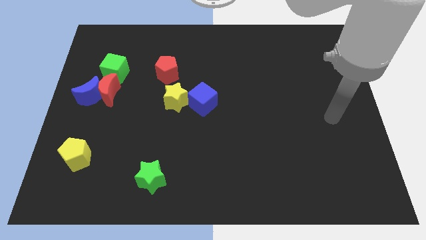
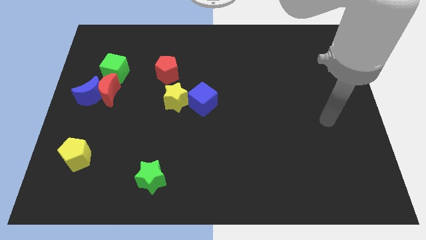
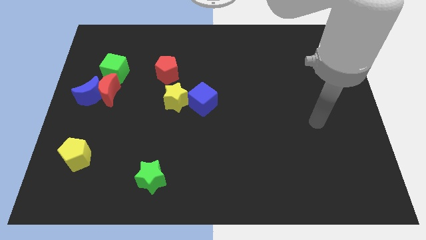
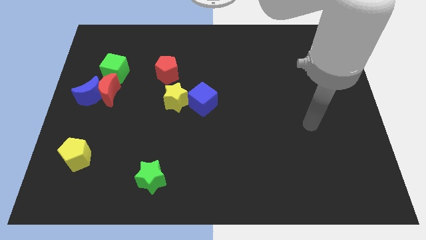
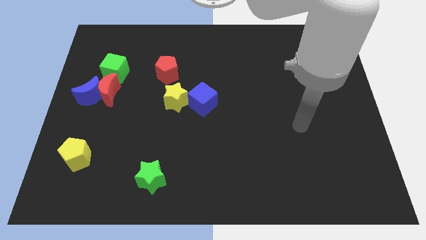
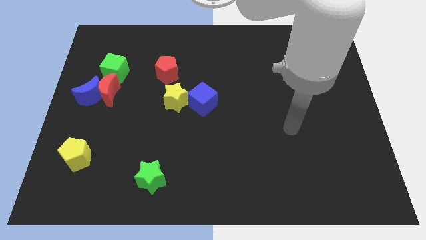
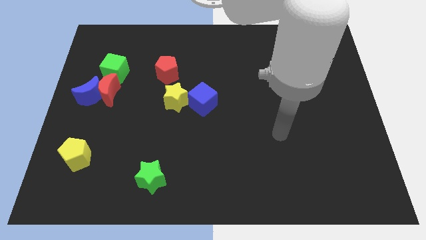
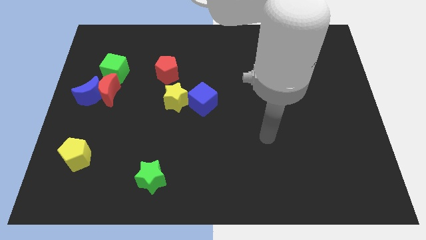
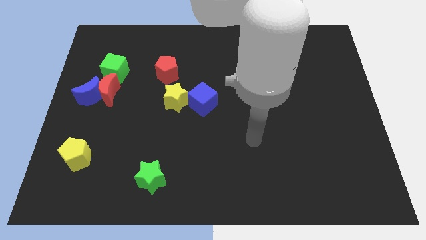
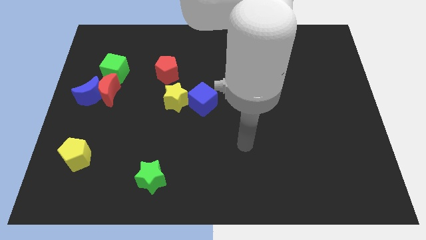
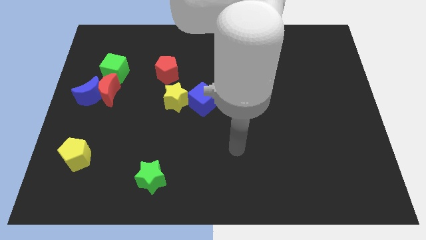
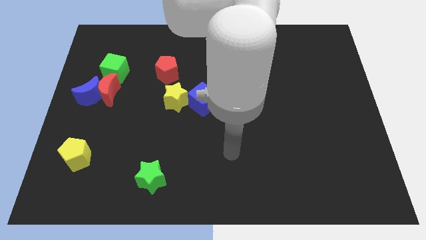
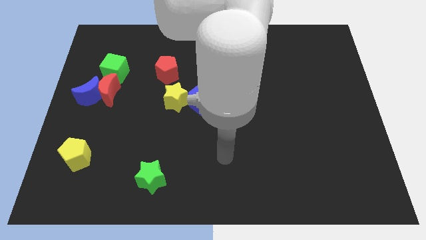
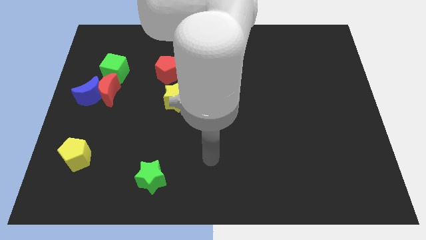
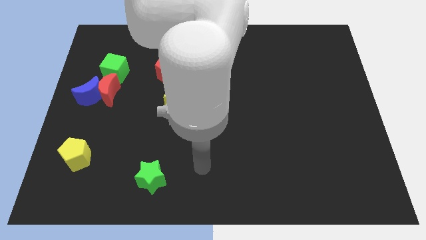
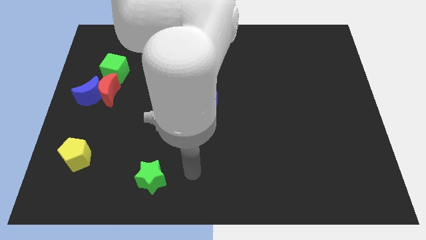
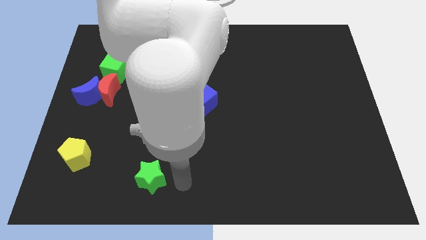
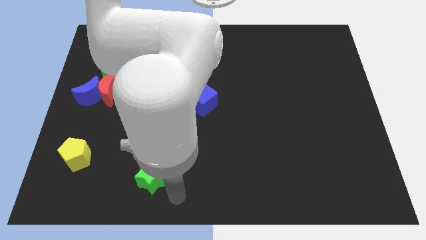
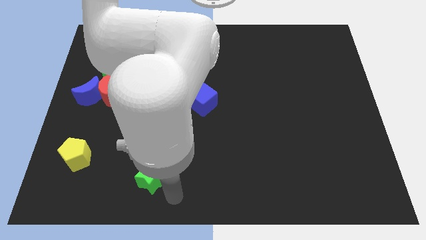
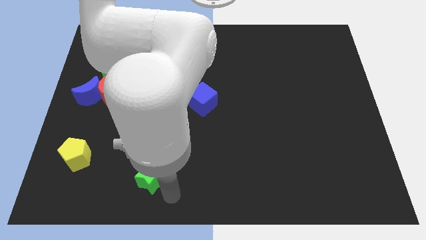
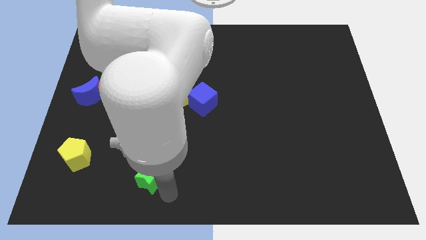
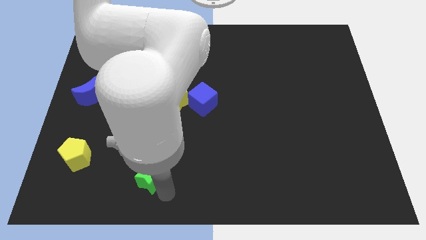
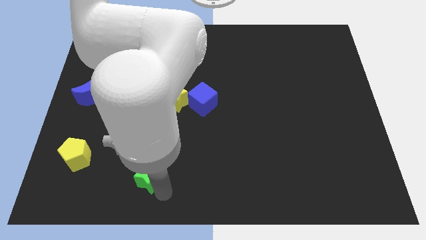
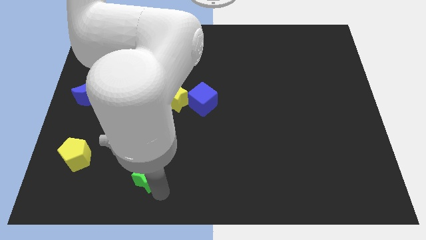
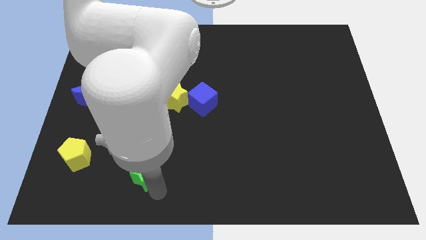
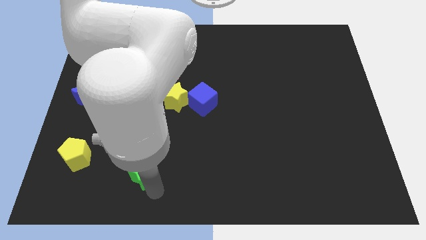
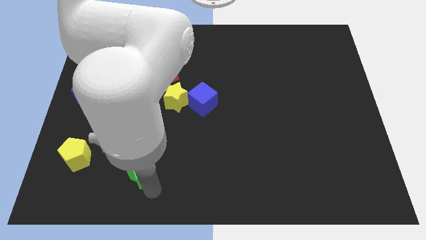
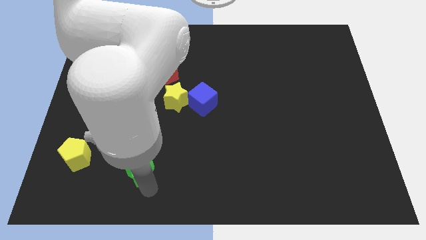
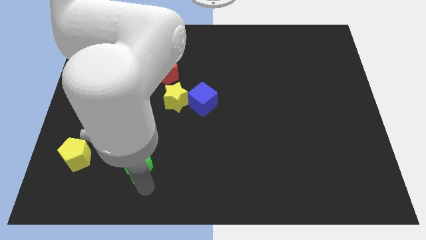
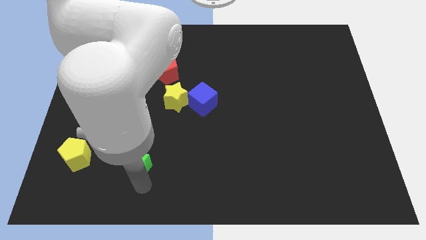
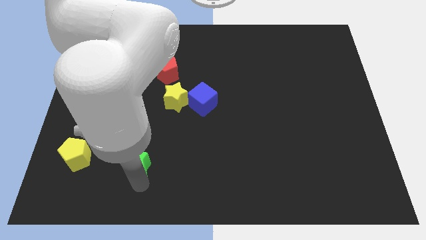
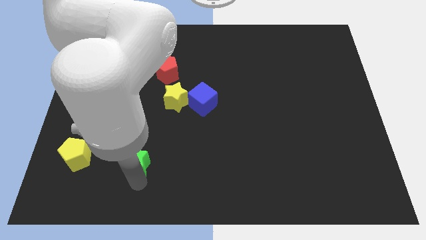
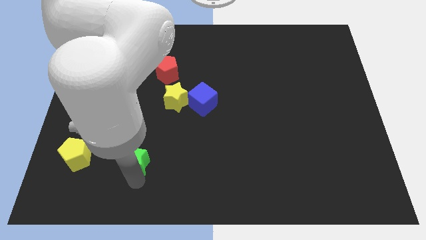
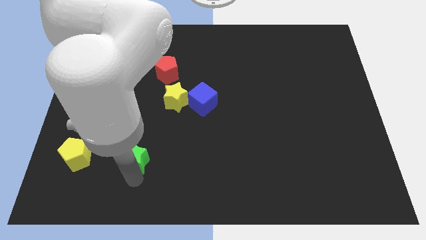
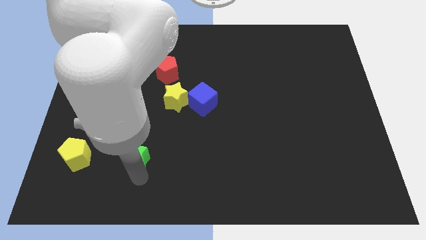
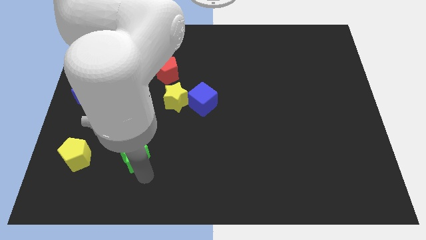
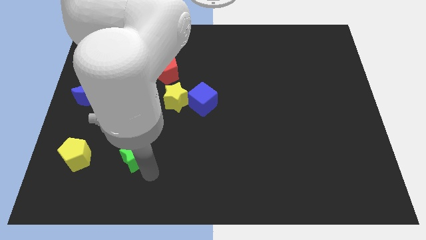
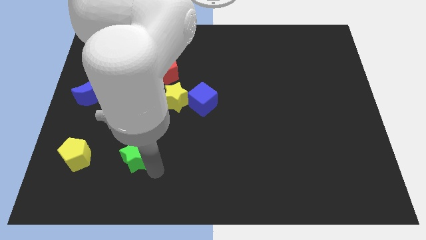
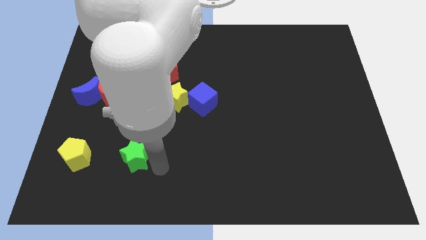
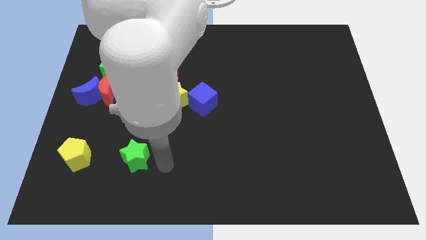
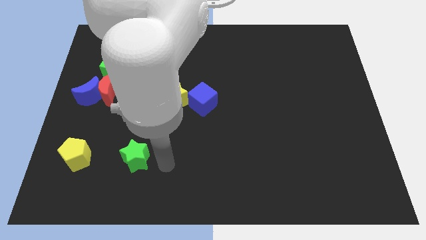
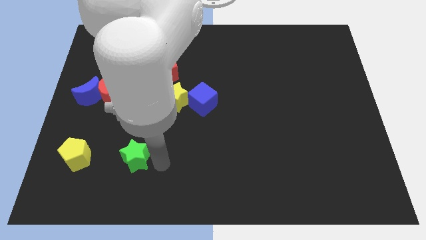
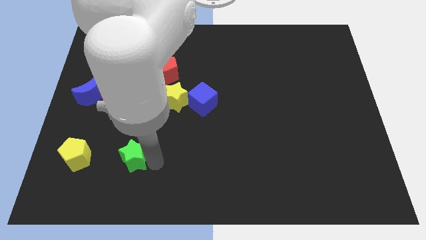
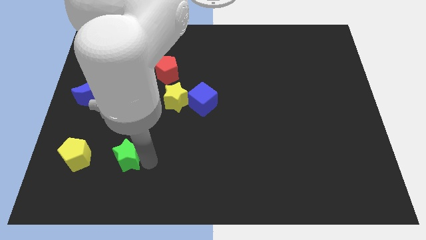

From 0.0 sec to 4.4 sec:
push the green star slightly up and to the left

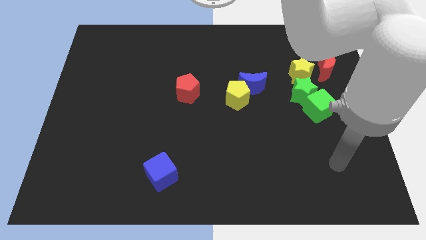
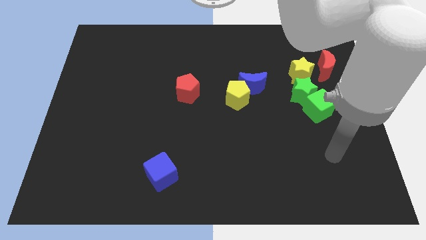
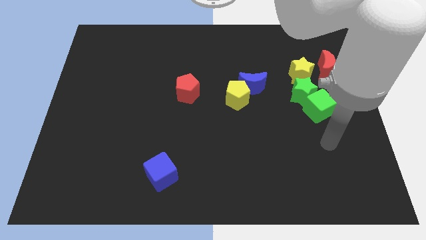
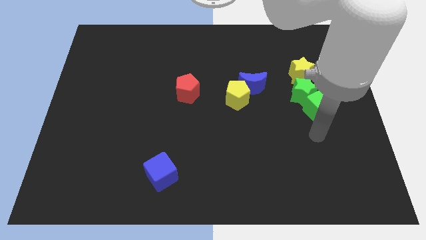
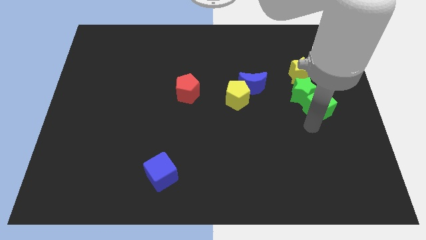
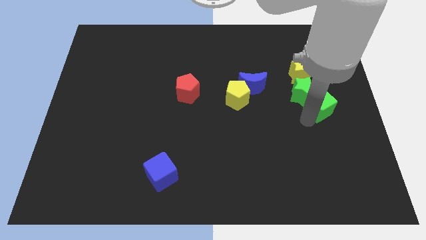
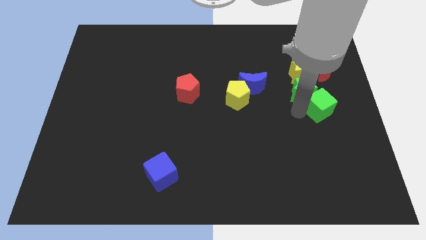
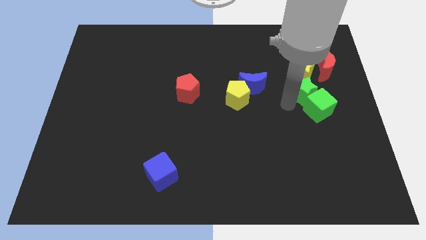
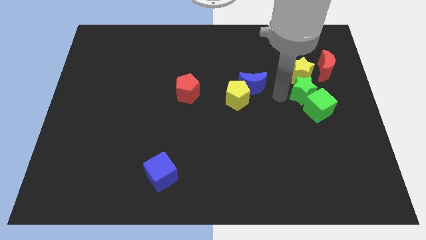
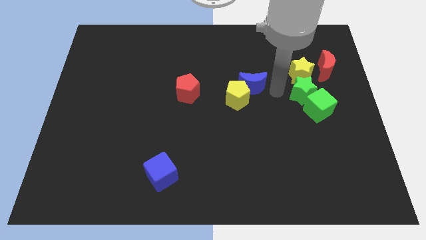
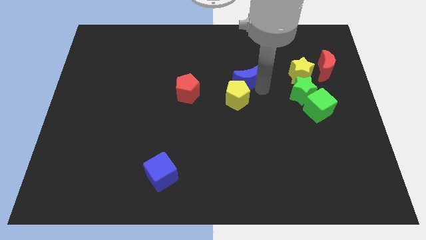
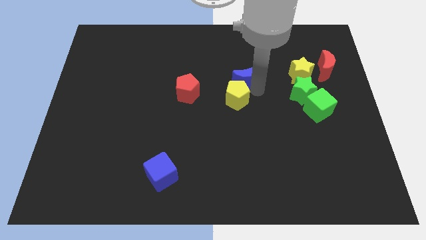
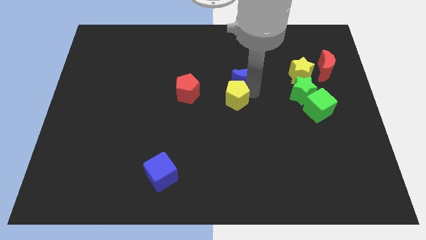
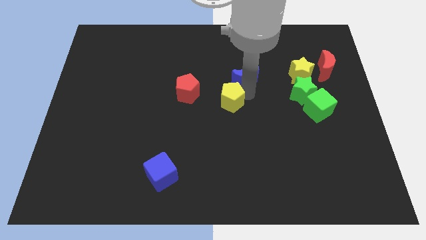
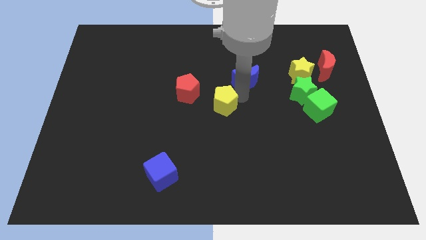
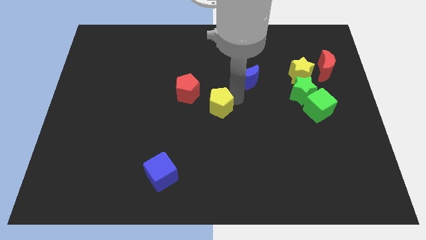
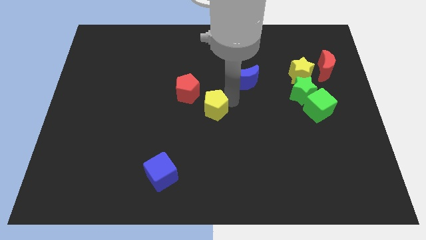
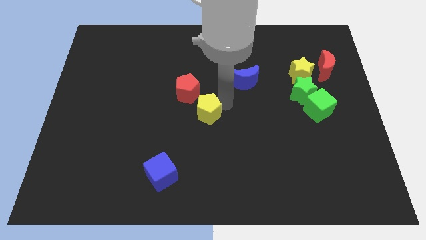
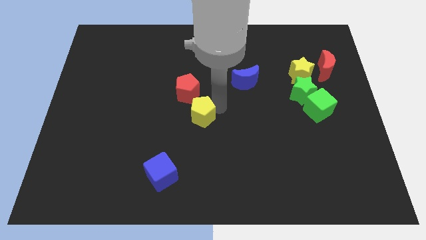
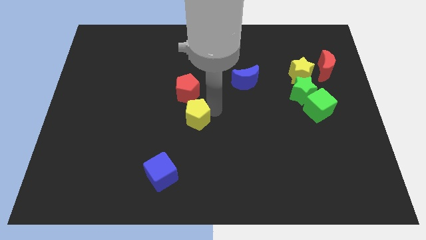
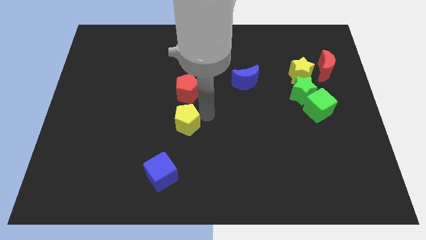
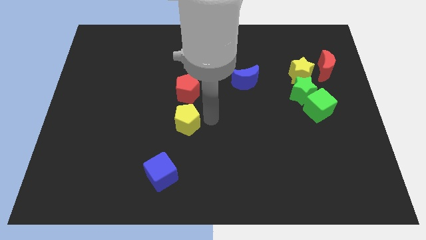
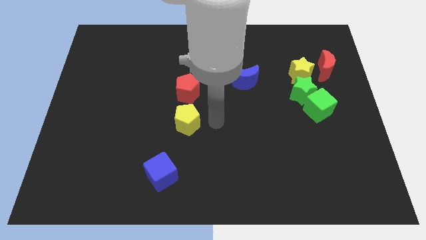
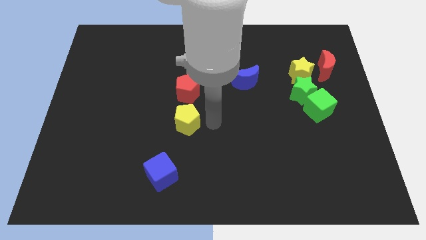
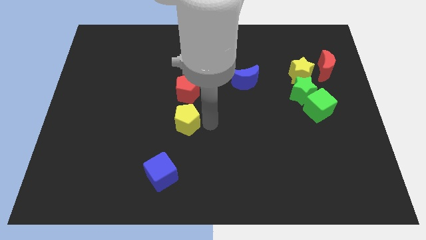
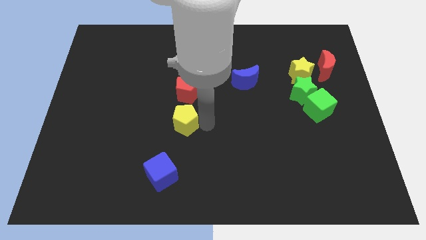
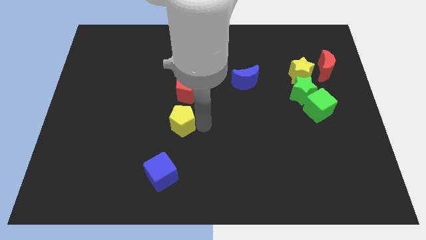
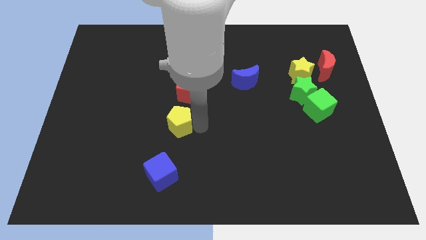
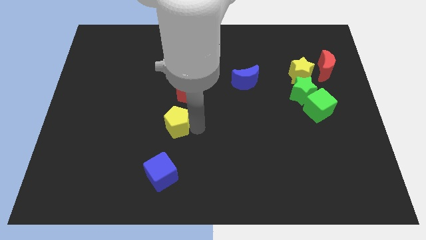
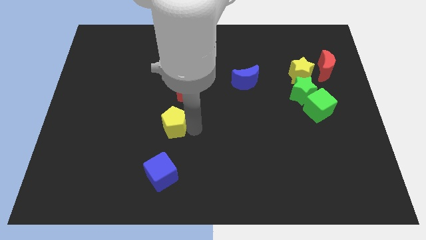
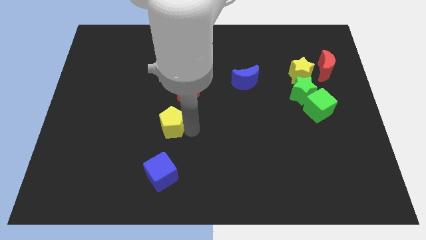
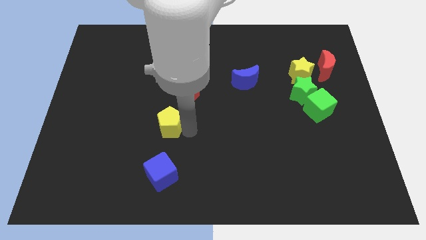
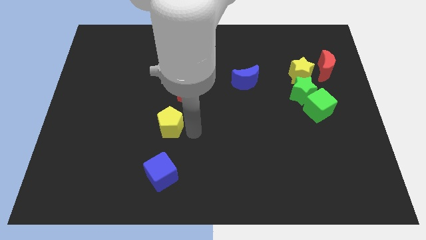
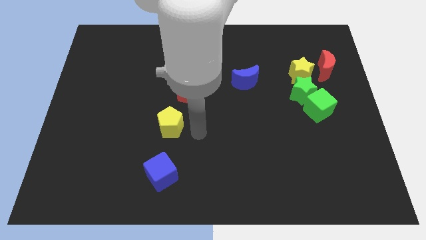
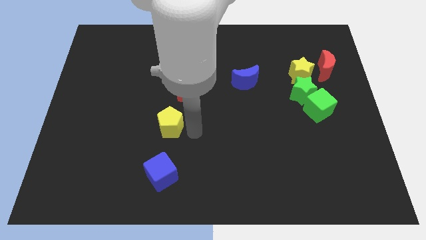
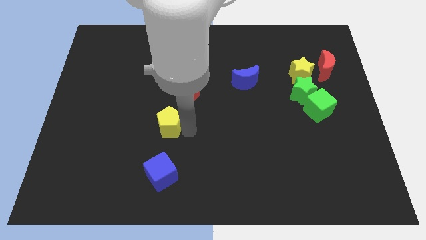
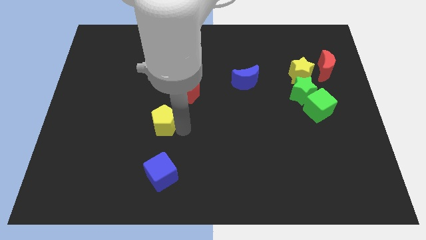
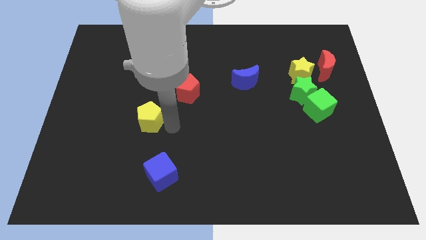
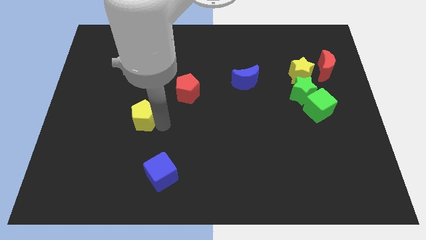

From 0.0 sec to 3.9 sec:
move the yellow pentagon left

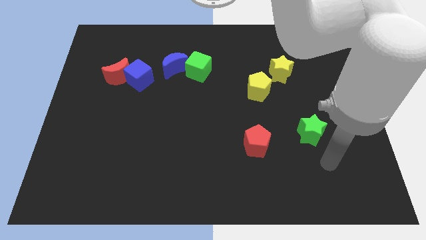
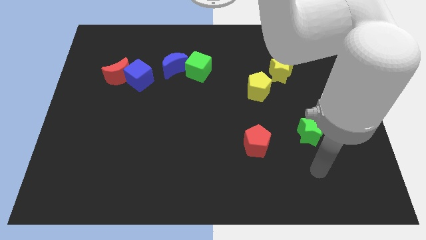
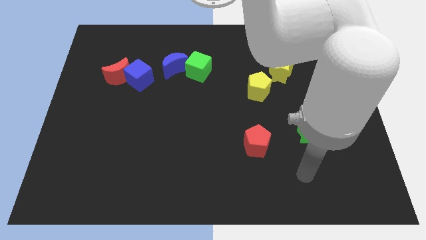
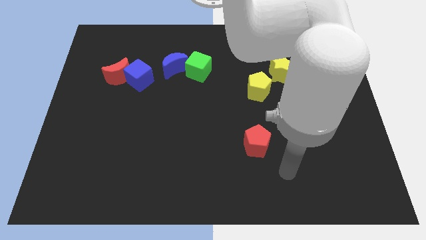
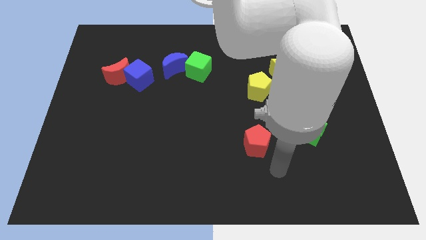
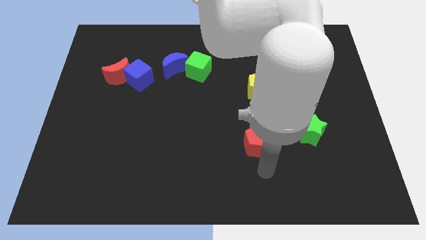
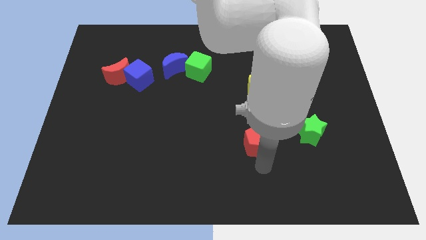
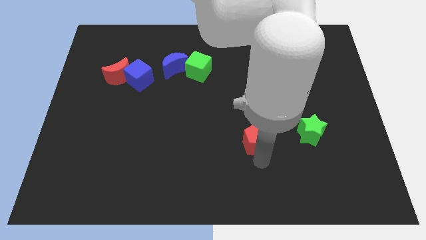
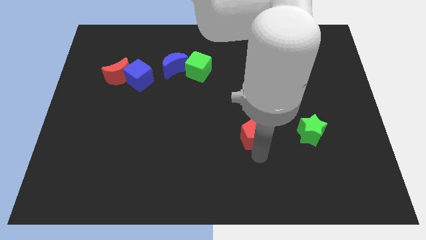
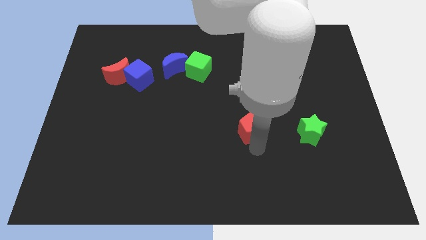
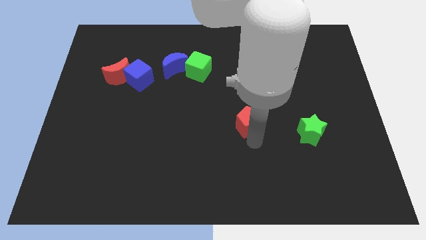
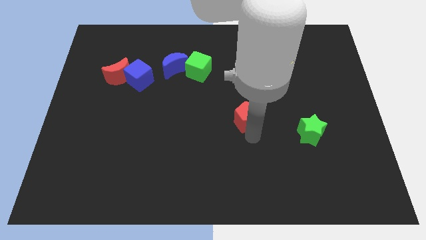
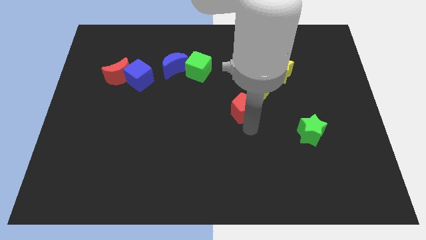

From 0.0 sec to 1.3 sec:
slightly push the red pentagon up
